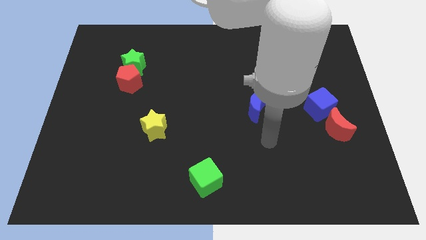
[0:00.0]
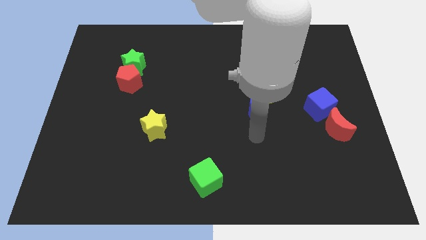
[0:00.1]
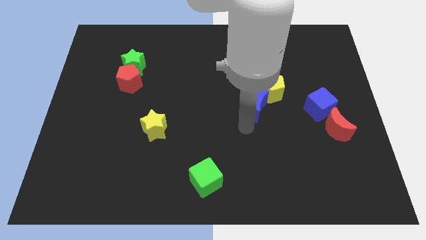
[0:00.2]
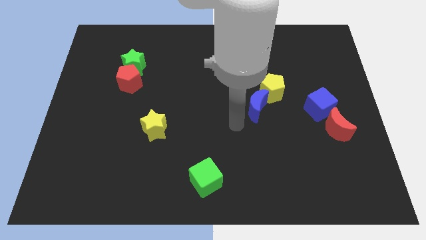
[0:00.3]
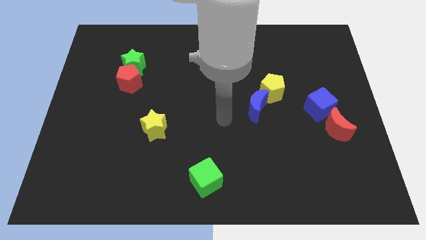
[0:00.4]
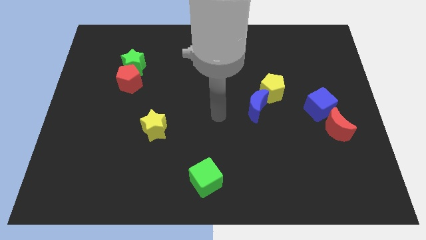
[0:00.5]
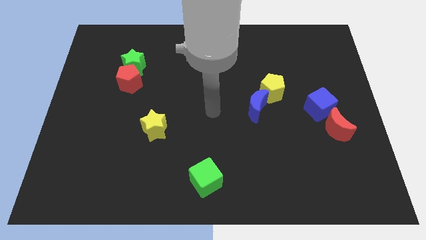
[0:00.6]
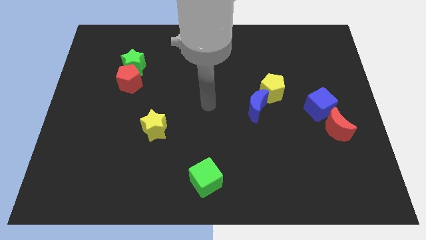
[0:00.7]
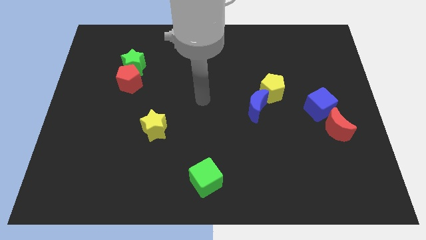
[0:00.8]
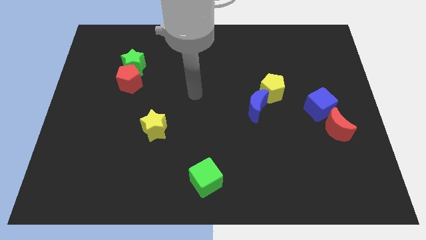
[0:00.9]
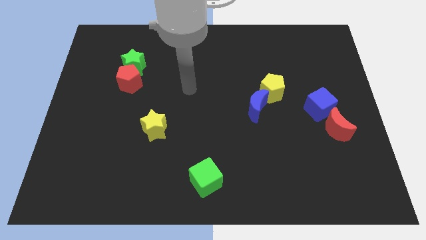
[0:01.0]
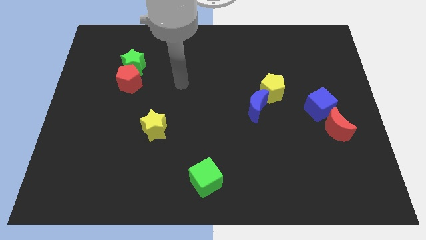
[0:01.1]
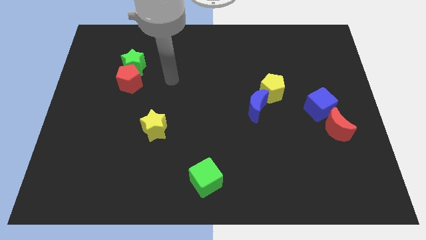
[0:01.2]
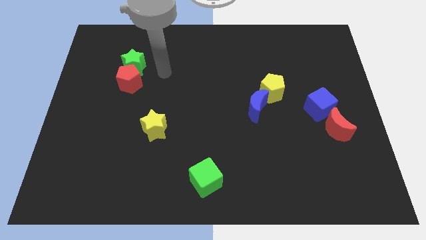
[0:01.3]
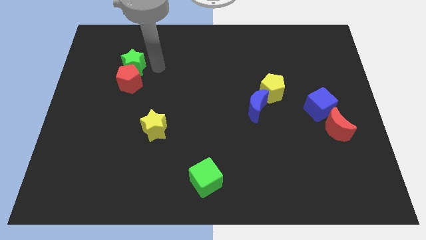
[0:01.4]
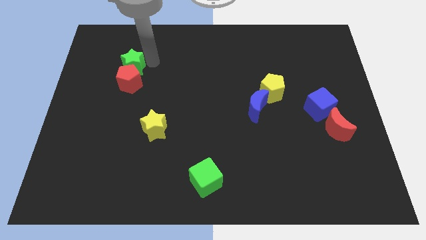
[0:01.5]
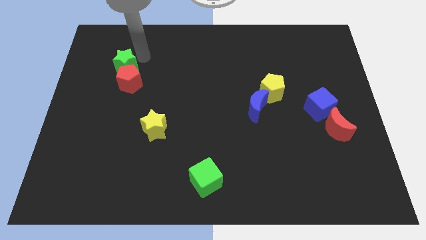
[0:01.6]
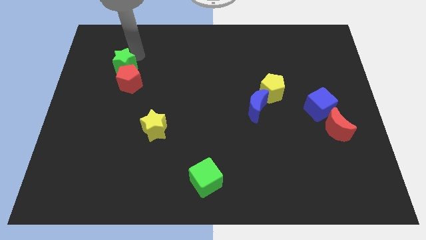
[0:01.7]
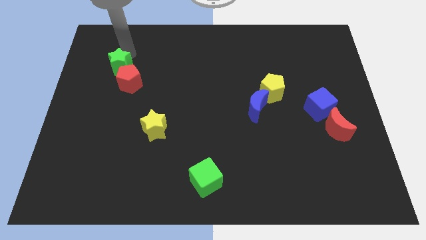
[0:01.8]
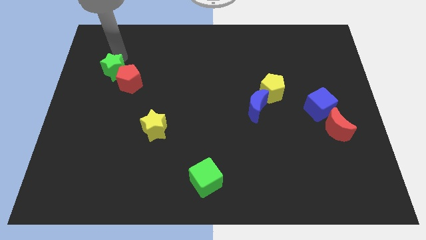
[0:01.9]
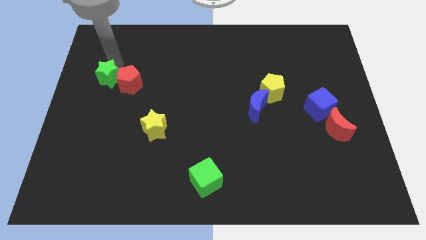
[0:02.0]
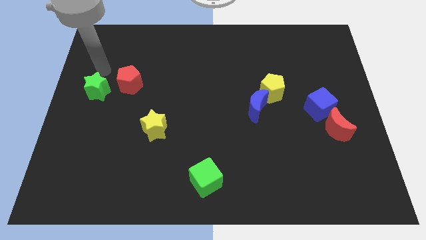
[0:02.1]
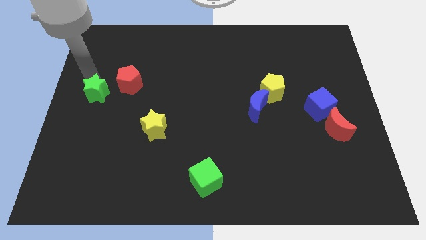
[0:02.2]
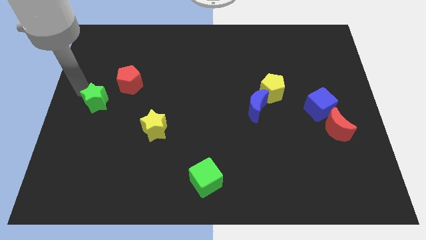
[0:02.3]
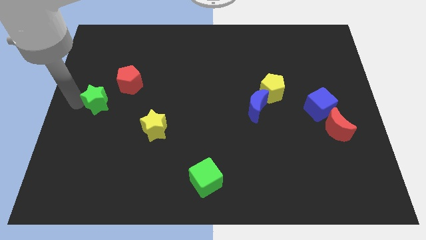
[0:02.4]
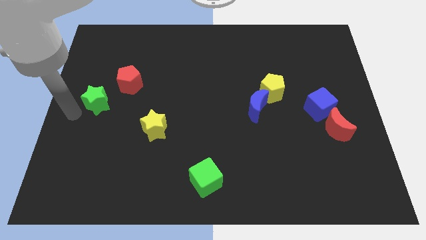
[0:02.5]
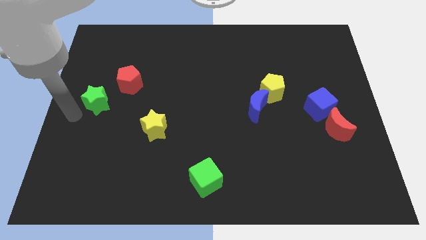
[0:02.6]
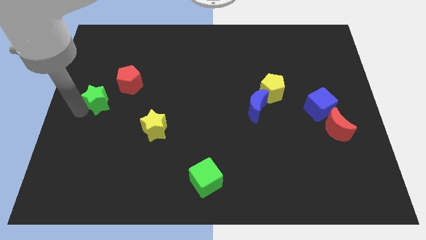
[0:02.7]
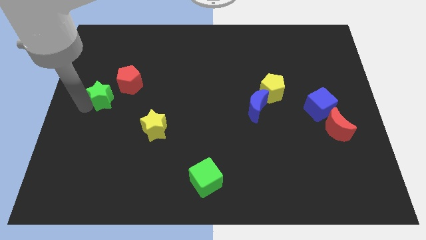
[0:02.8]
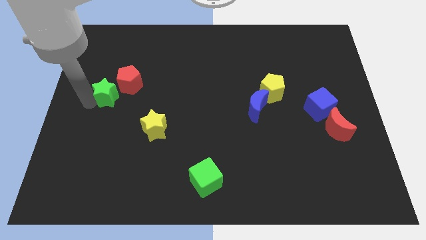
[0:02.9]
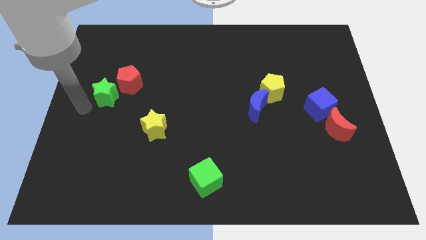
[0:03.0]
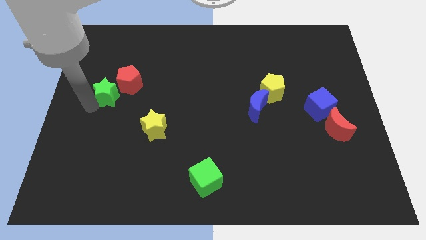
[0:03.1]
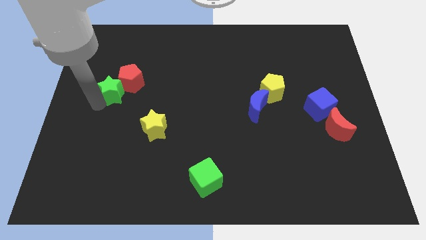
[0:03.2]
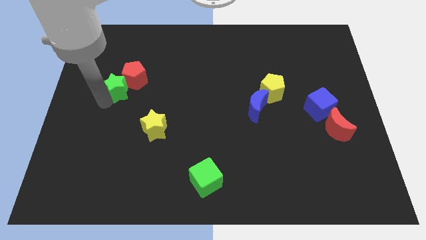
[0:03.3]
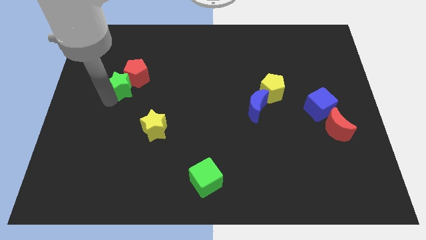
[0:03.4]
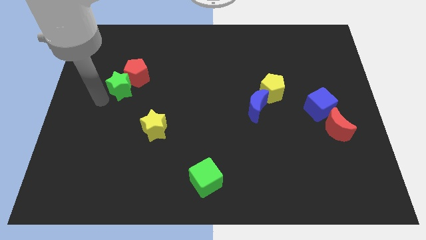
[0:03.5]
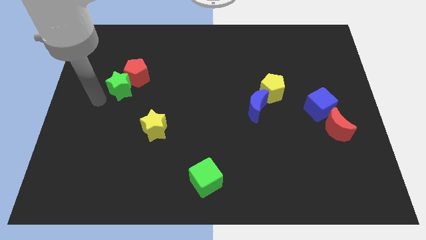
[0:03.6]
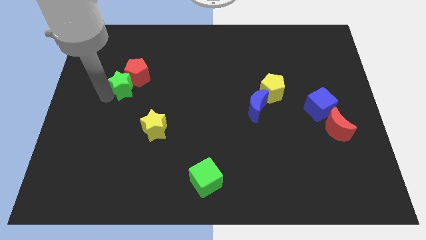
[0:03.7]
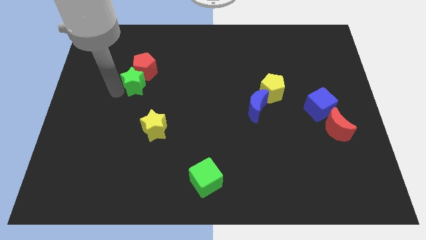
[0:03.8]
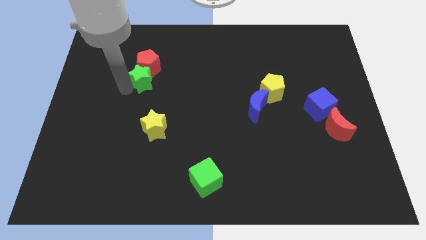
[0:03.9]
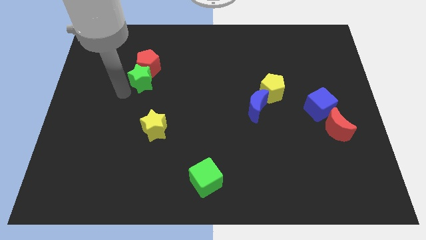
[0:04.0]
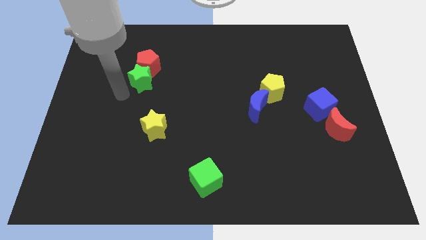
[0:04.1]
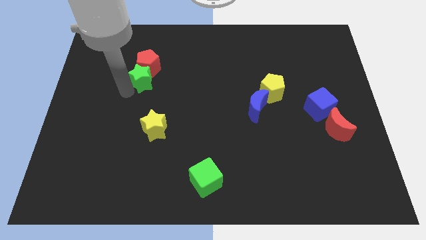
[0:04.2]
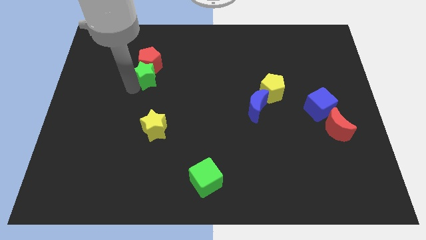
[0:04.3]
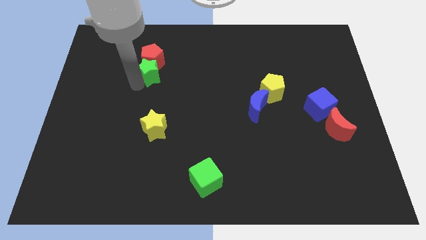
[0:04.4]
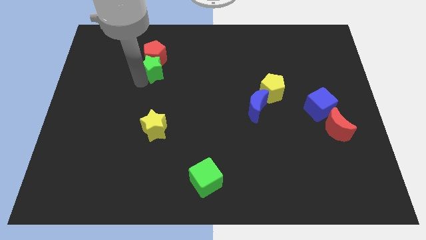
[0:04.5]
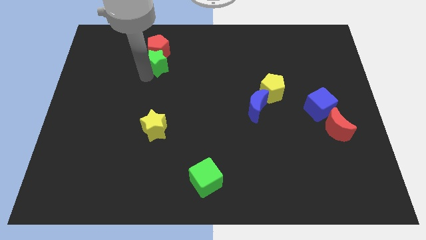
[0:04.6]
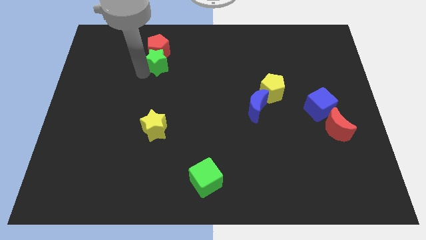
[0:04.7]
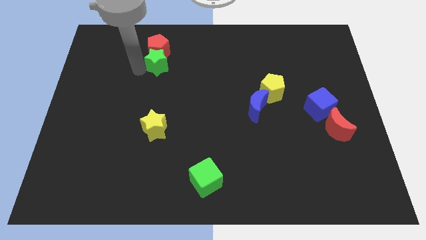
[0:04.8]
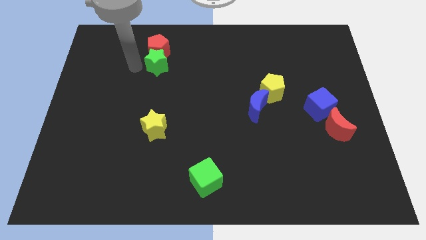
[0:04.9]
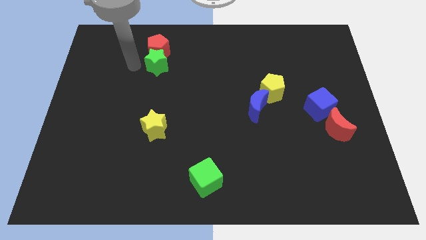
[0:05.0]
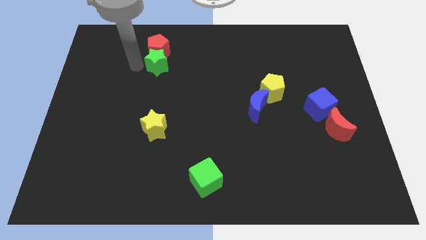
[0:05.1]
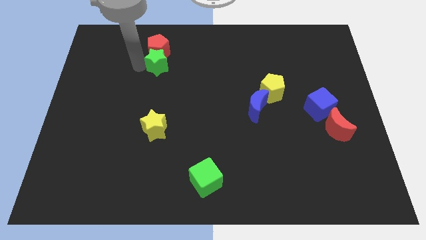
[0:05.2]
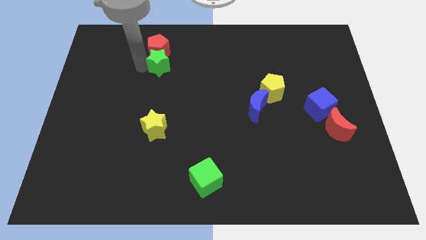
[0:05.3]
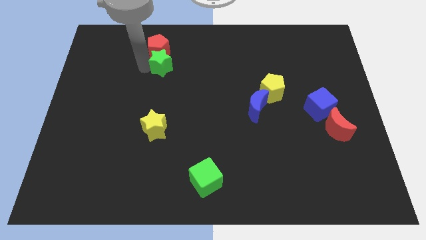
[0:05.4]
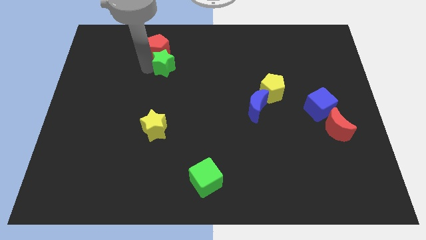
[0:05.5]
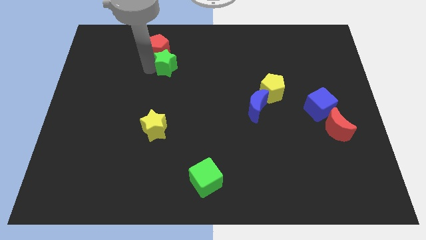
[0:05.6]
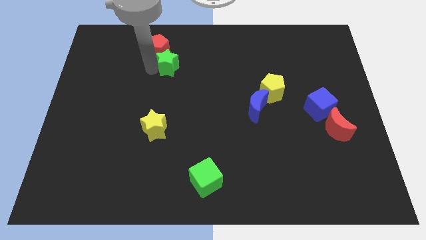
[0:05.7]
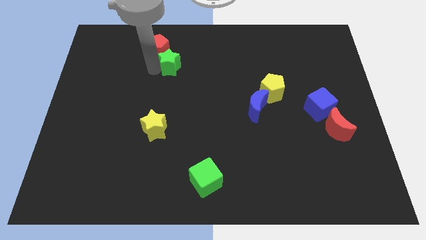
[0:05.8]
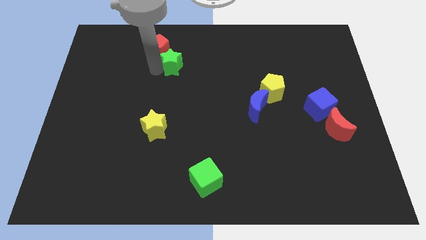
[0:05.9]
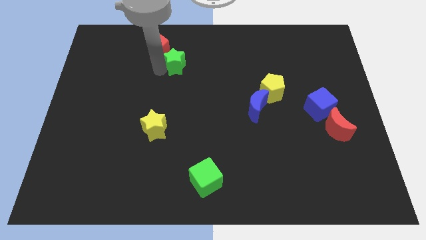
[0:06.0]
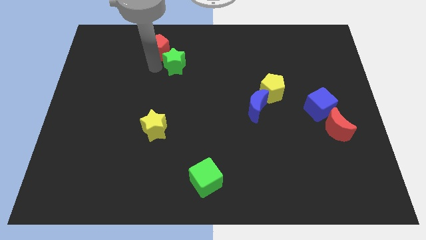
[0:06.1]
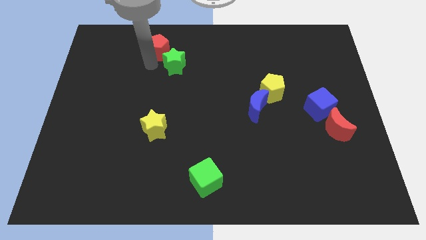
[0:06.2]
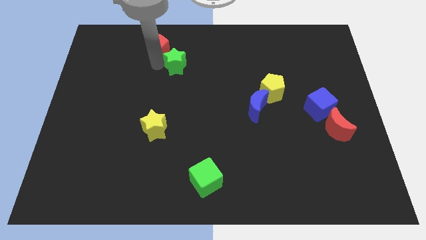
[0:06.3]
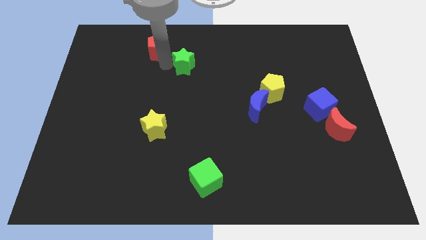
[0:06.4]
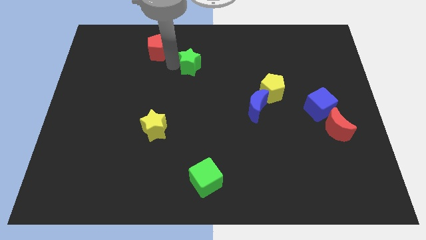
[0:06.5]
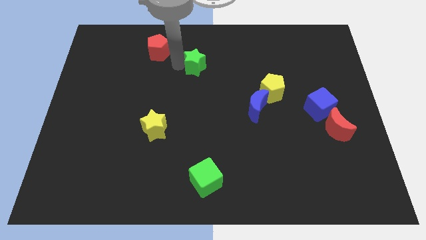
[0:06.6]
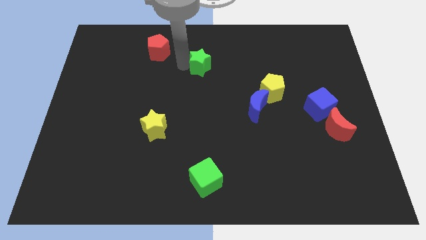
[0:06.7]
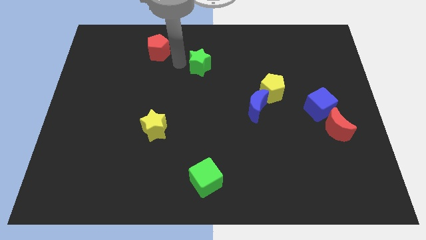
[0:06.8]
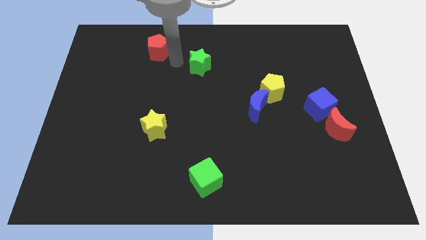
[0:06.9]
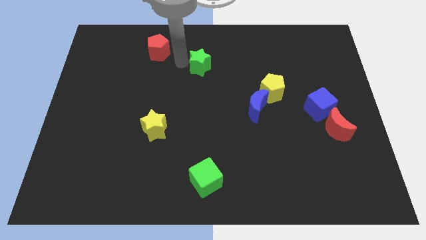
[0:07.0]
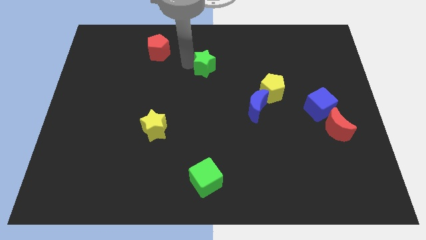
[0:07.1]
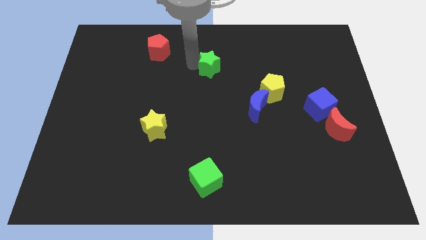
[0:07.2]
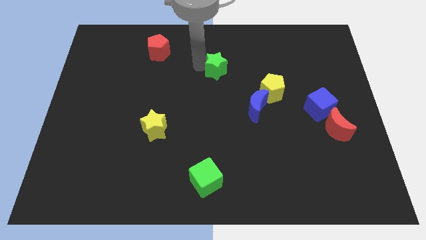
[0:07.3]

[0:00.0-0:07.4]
move the green star right

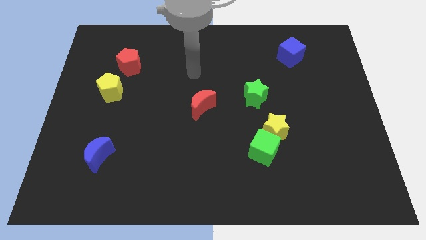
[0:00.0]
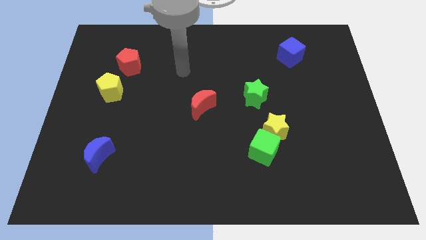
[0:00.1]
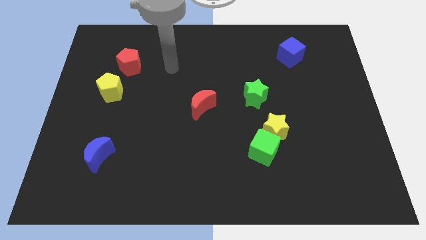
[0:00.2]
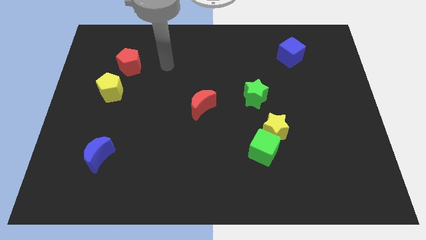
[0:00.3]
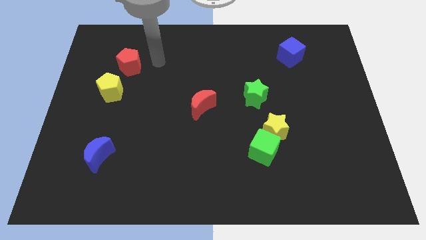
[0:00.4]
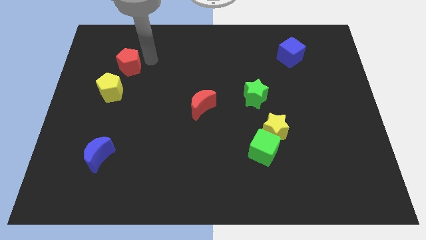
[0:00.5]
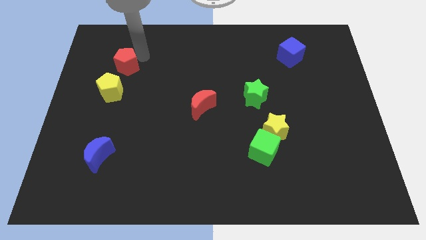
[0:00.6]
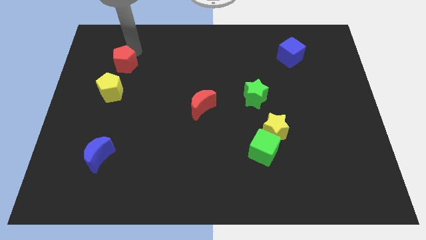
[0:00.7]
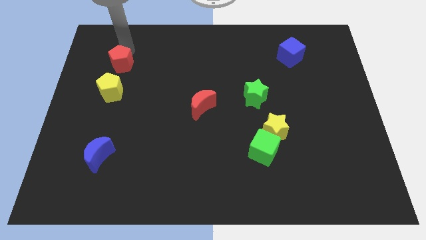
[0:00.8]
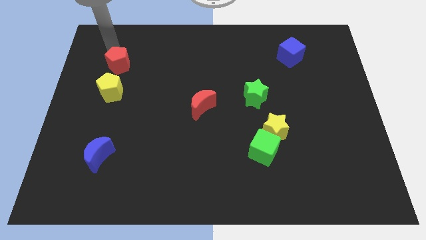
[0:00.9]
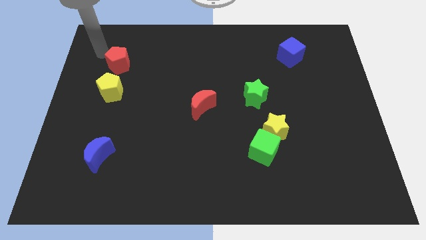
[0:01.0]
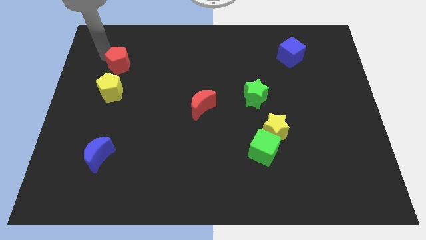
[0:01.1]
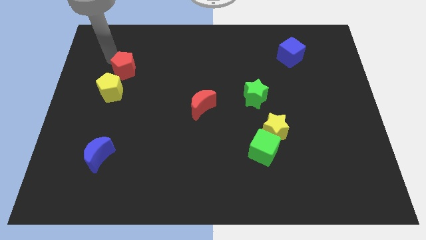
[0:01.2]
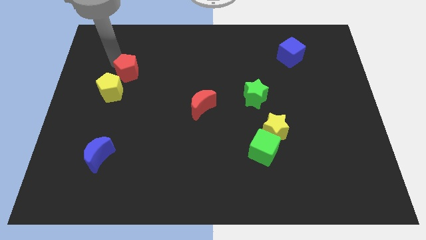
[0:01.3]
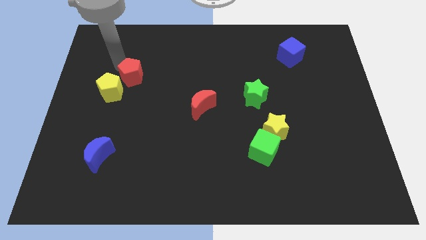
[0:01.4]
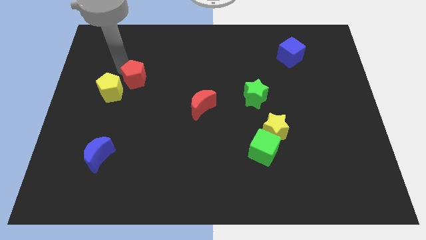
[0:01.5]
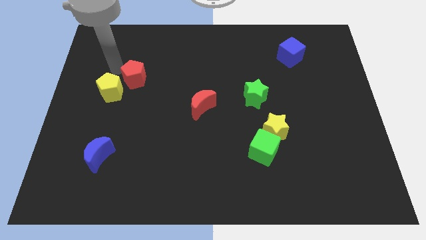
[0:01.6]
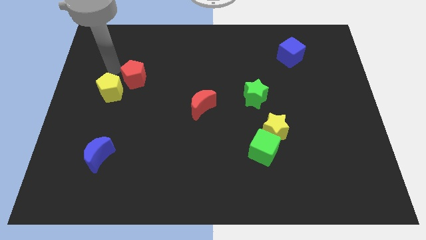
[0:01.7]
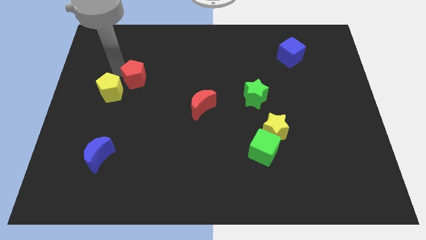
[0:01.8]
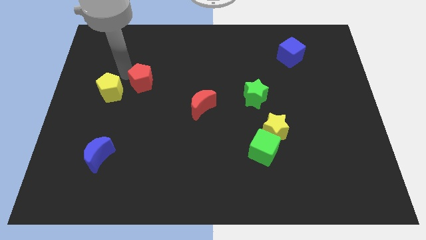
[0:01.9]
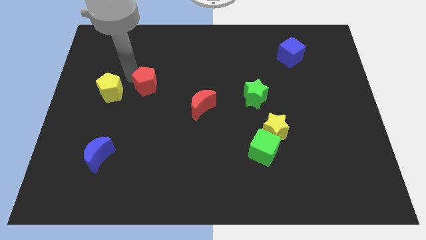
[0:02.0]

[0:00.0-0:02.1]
push the red pentagon a little down and right
